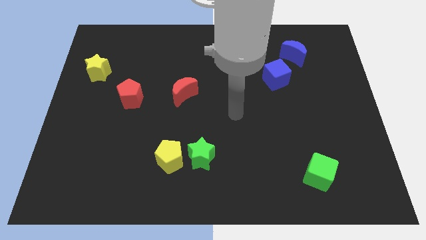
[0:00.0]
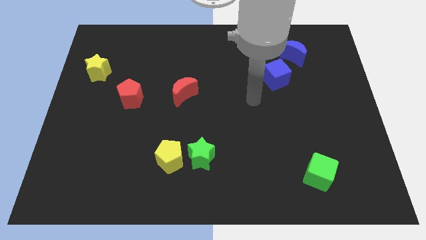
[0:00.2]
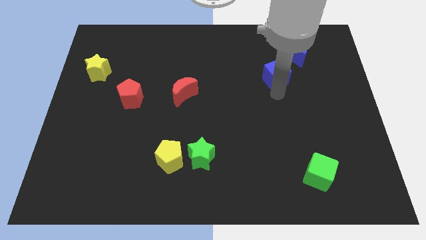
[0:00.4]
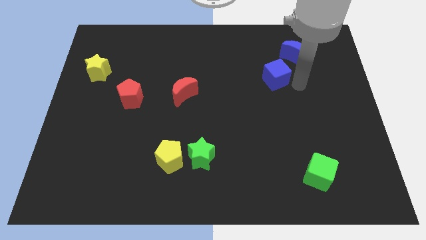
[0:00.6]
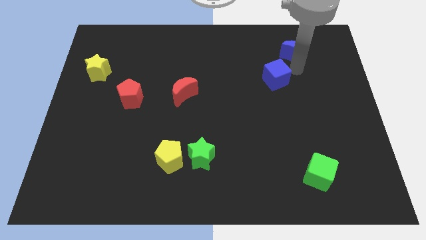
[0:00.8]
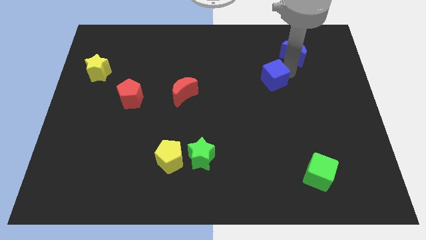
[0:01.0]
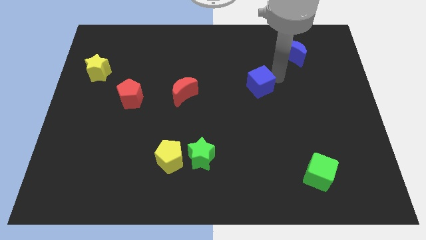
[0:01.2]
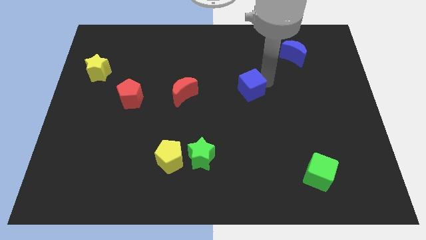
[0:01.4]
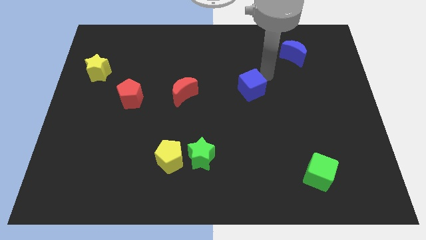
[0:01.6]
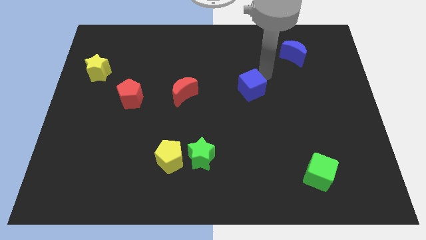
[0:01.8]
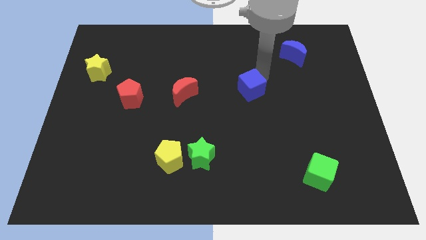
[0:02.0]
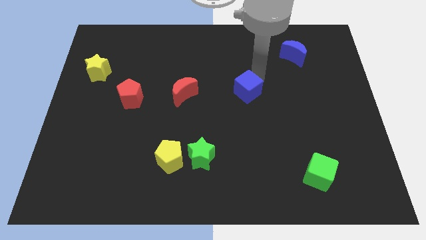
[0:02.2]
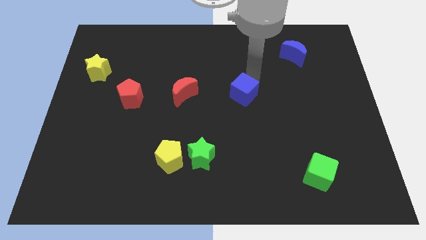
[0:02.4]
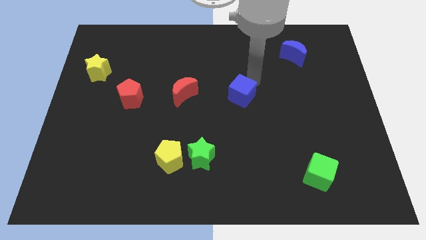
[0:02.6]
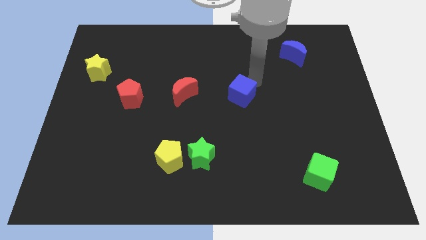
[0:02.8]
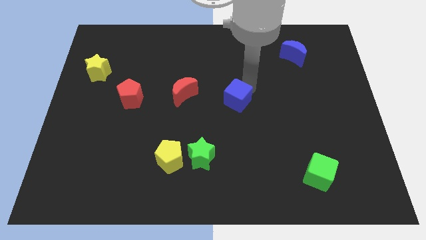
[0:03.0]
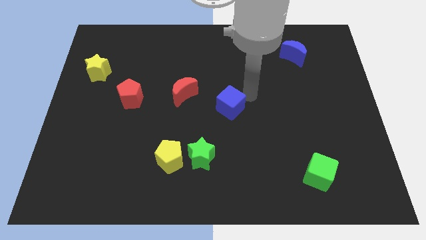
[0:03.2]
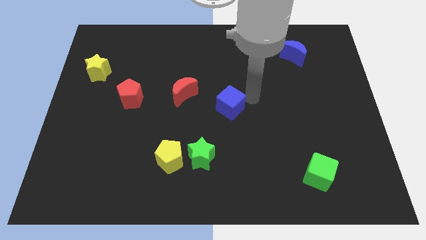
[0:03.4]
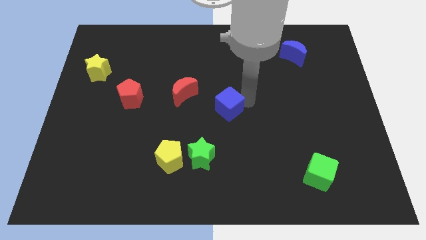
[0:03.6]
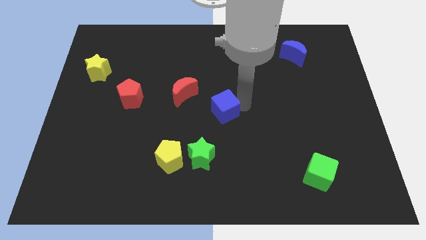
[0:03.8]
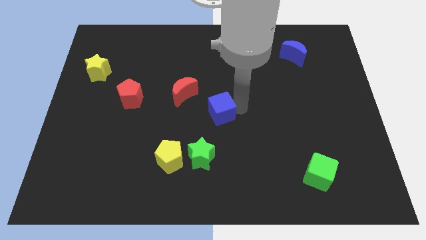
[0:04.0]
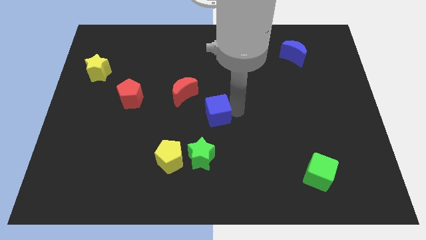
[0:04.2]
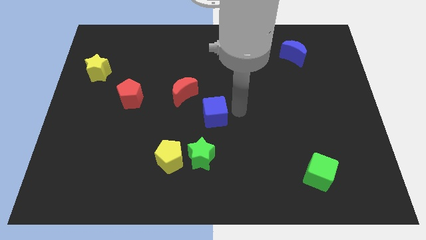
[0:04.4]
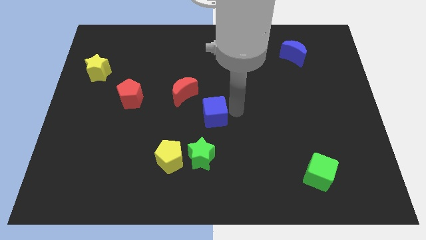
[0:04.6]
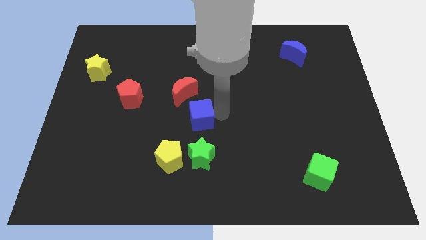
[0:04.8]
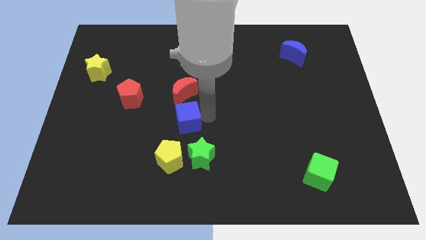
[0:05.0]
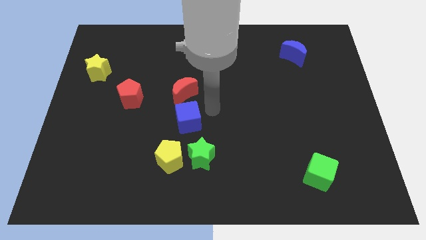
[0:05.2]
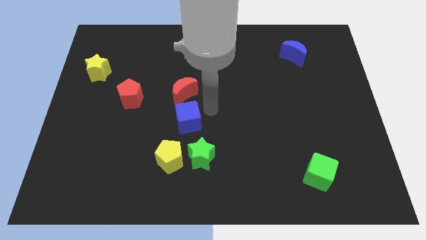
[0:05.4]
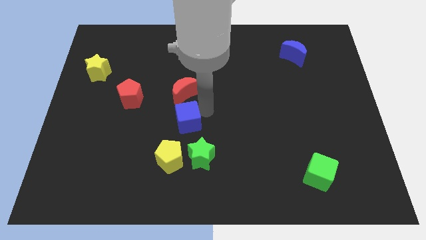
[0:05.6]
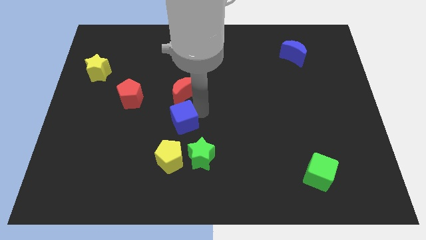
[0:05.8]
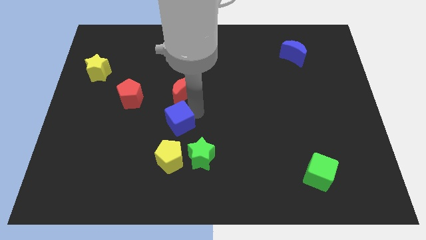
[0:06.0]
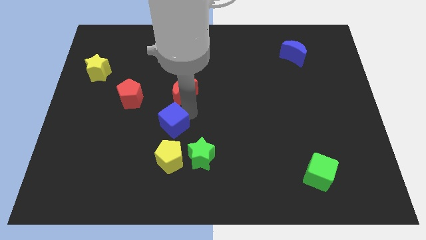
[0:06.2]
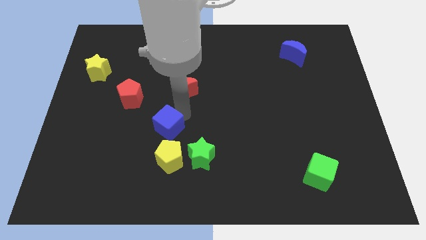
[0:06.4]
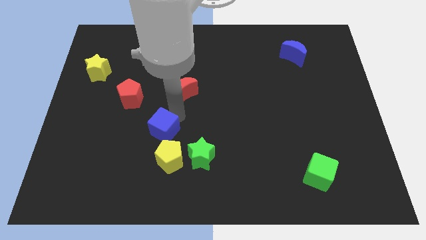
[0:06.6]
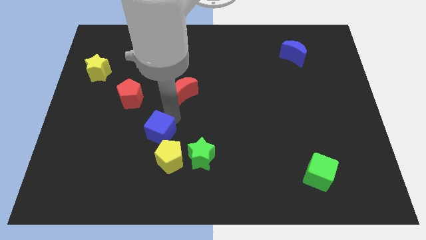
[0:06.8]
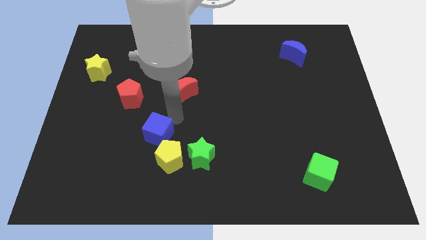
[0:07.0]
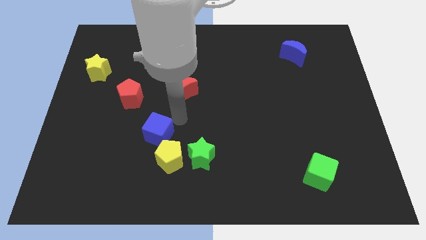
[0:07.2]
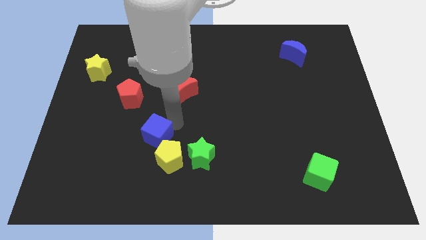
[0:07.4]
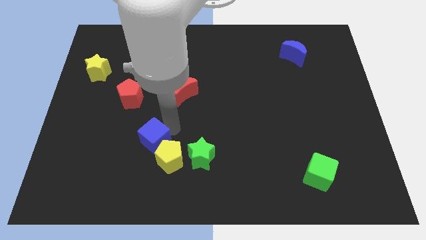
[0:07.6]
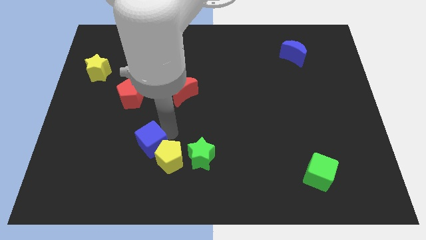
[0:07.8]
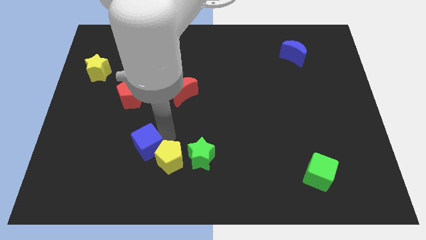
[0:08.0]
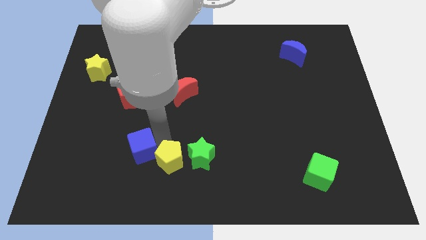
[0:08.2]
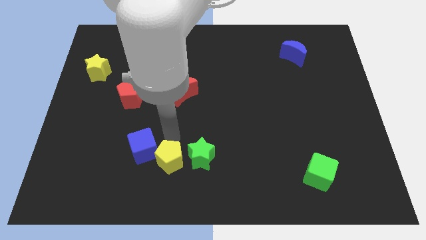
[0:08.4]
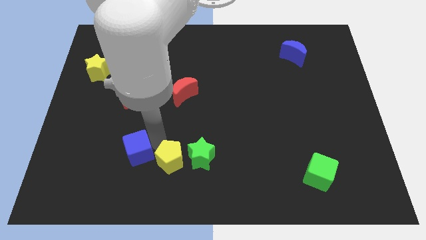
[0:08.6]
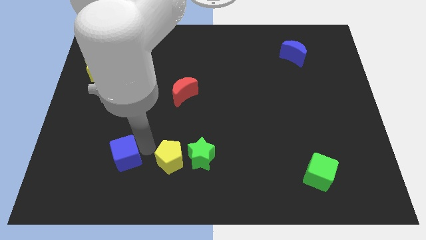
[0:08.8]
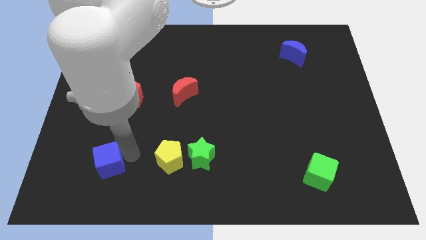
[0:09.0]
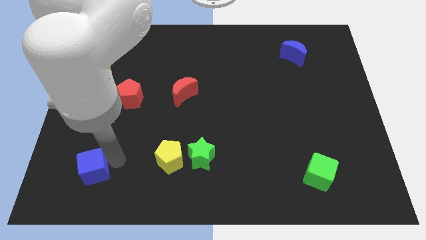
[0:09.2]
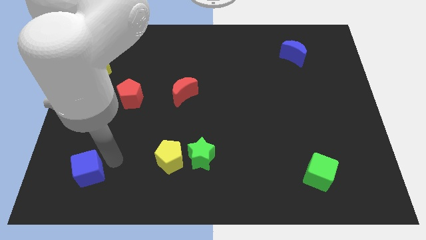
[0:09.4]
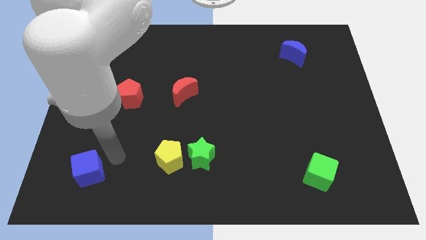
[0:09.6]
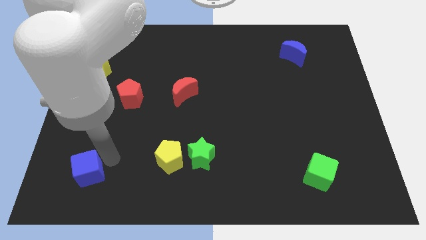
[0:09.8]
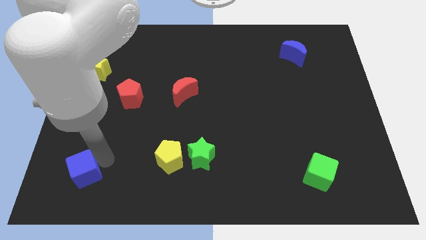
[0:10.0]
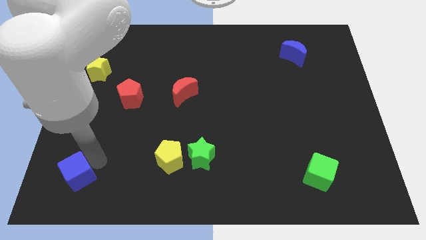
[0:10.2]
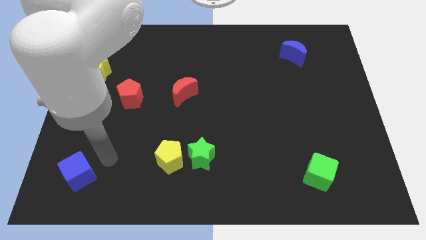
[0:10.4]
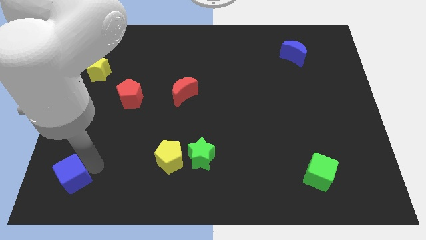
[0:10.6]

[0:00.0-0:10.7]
slide the blue cube to the bottom left corner
